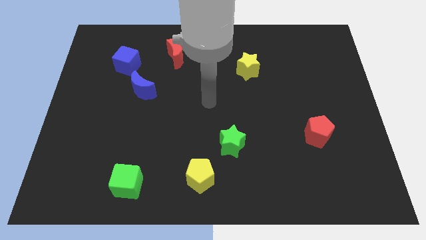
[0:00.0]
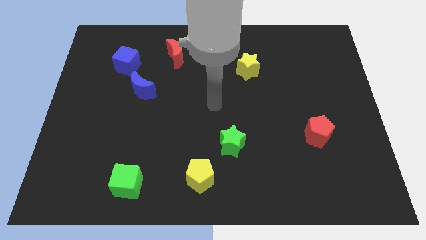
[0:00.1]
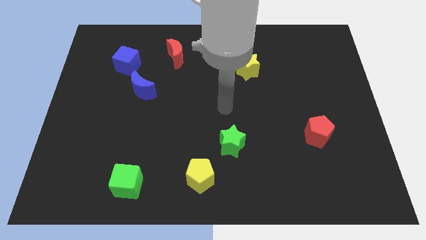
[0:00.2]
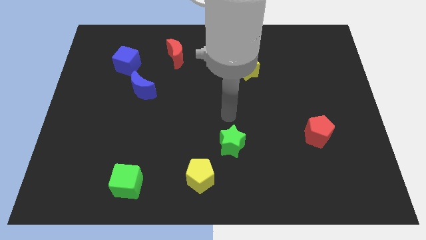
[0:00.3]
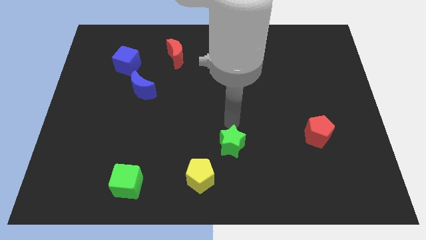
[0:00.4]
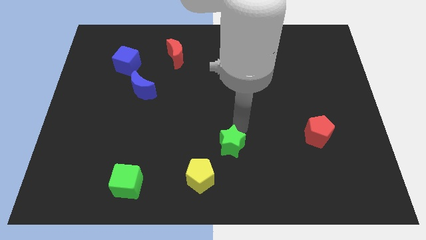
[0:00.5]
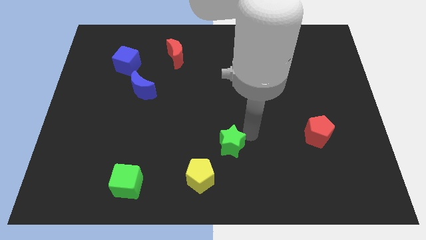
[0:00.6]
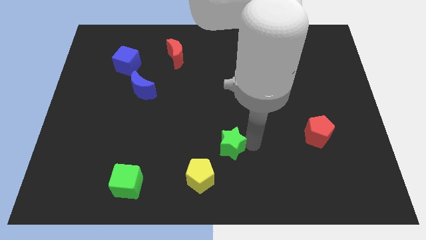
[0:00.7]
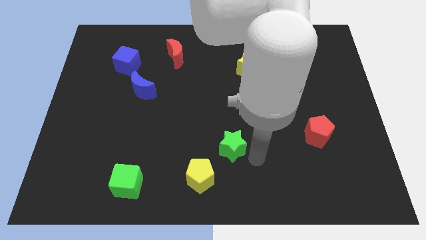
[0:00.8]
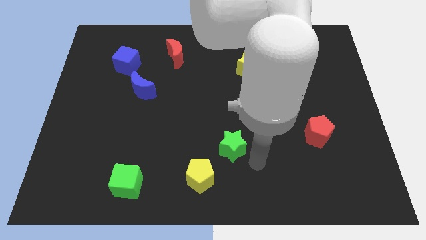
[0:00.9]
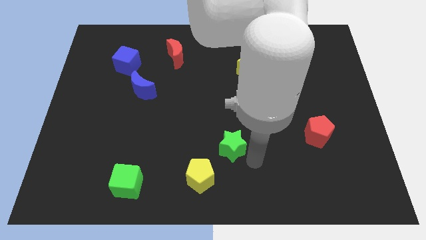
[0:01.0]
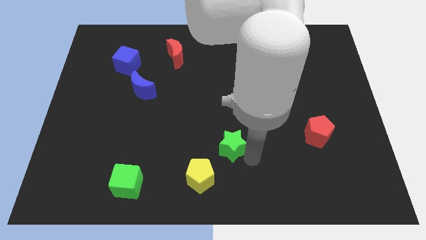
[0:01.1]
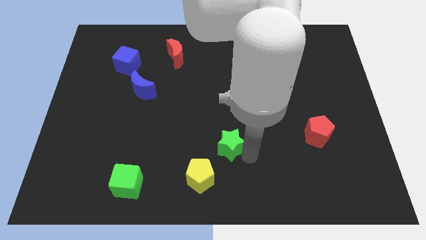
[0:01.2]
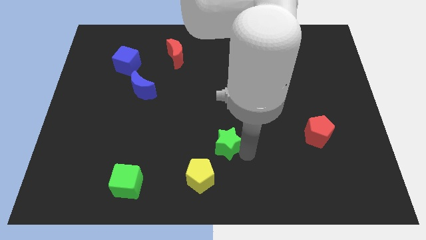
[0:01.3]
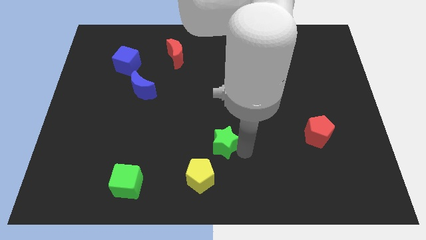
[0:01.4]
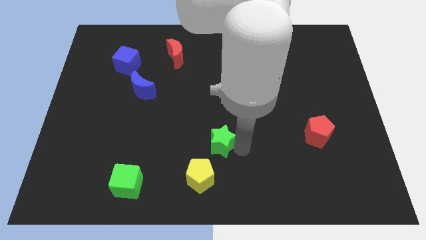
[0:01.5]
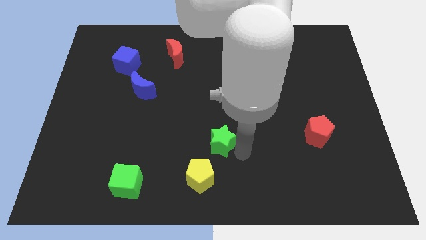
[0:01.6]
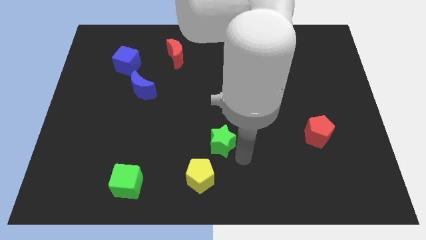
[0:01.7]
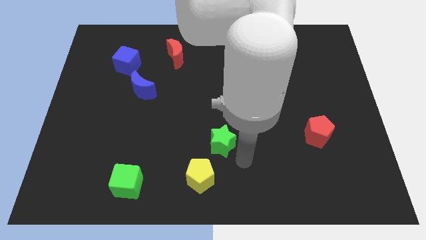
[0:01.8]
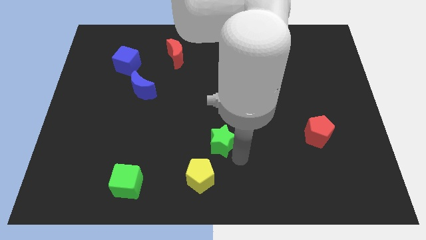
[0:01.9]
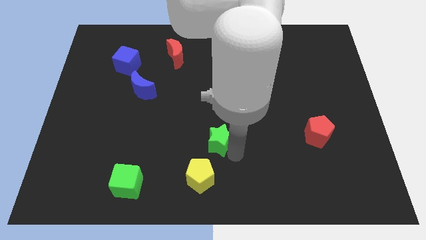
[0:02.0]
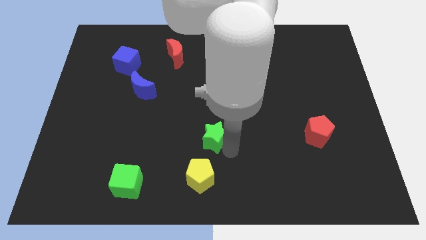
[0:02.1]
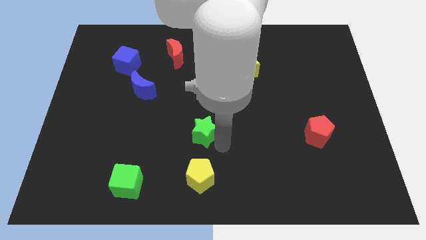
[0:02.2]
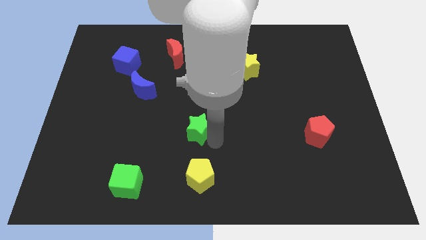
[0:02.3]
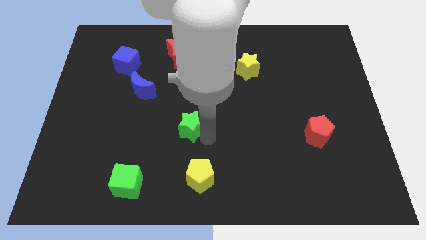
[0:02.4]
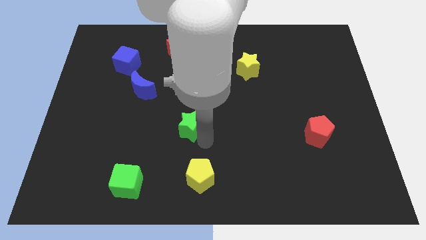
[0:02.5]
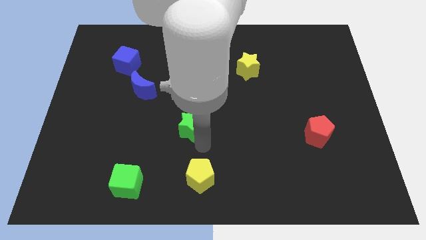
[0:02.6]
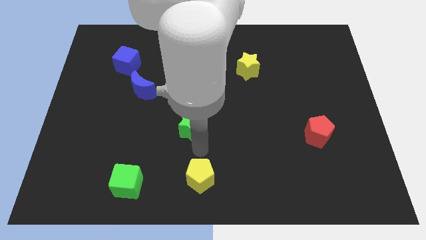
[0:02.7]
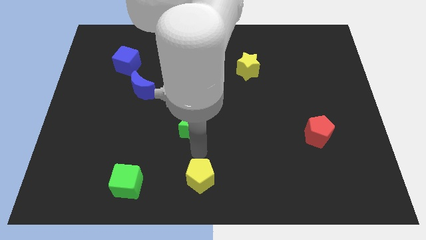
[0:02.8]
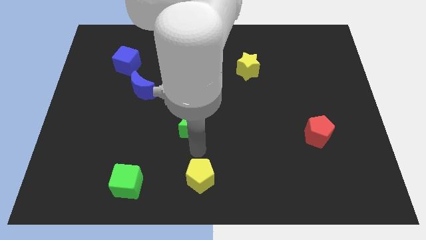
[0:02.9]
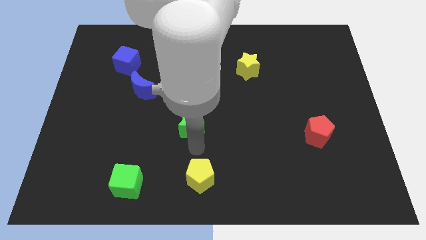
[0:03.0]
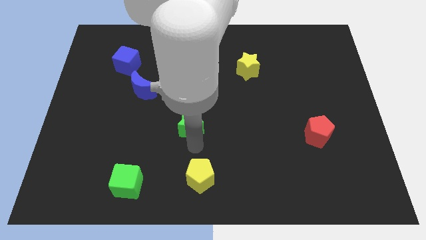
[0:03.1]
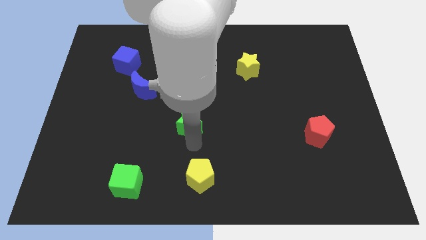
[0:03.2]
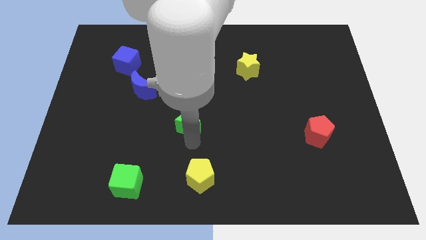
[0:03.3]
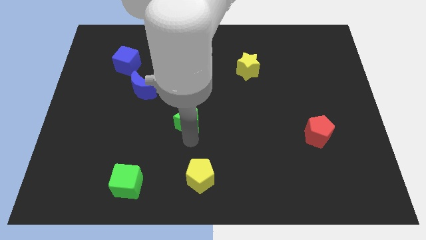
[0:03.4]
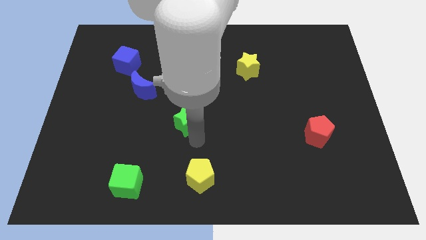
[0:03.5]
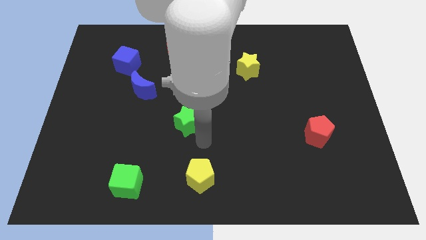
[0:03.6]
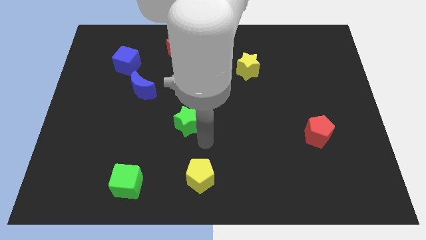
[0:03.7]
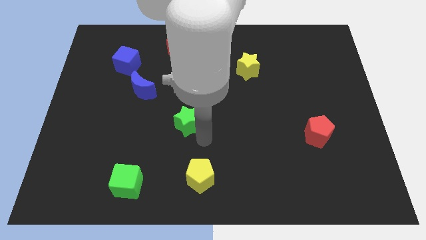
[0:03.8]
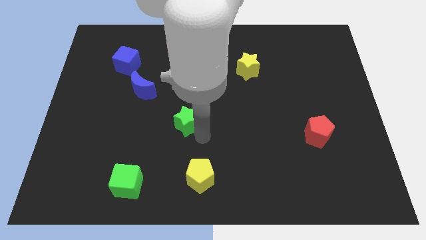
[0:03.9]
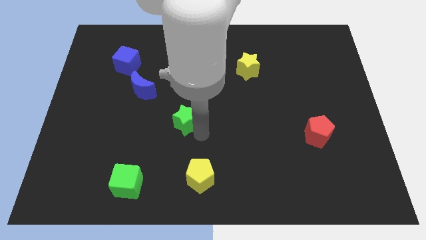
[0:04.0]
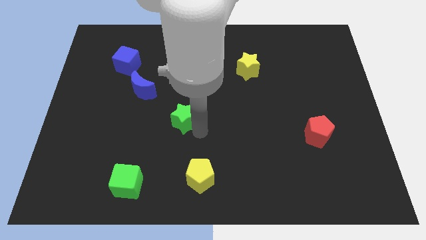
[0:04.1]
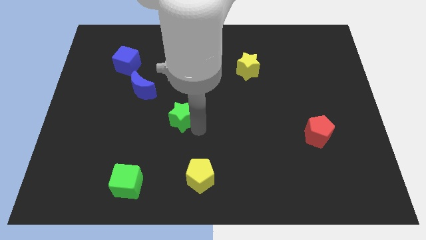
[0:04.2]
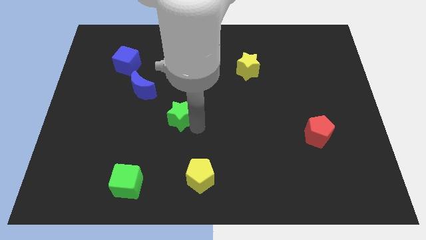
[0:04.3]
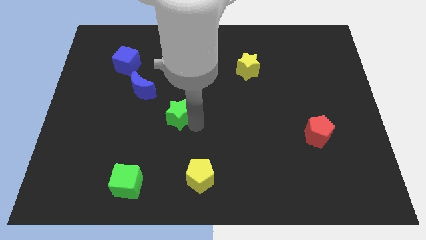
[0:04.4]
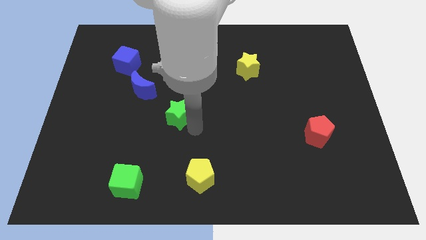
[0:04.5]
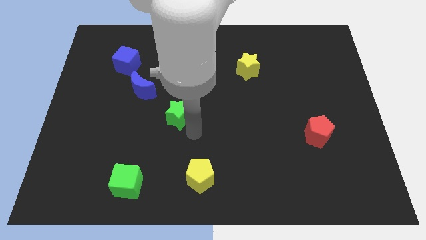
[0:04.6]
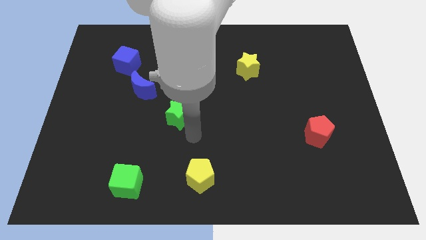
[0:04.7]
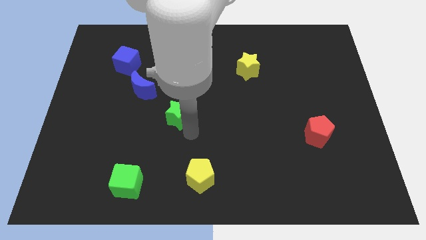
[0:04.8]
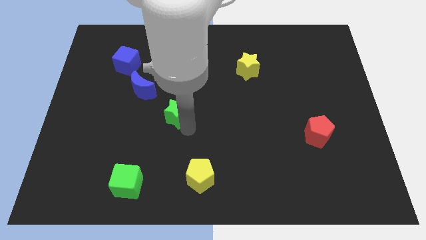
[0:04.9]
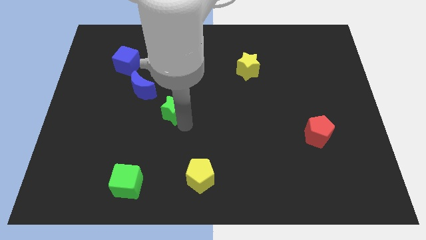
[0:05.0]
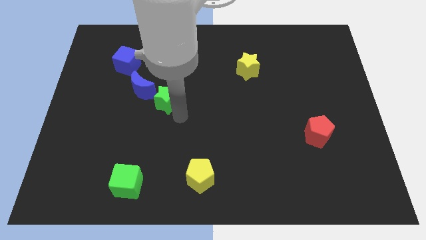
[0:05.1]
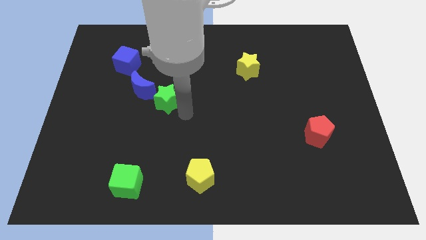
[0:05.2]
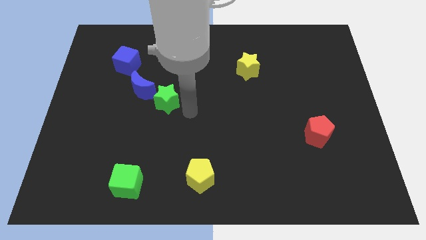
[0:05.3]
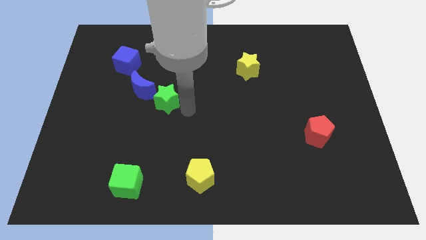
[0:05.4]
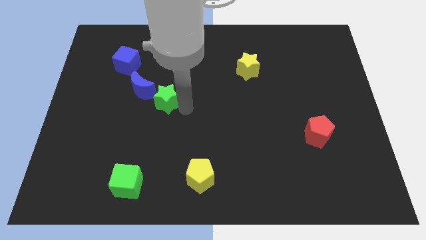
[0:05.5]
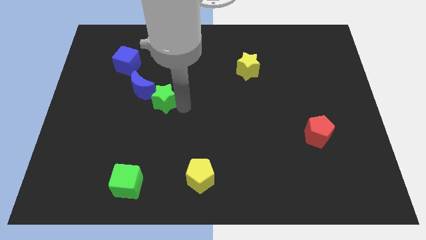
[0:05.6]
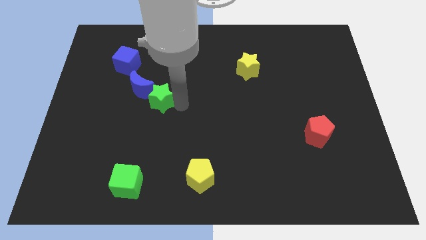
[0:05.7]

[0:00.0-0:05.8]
put the green star next to the blue moon

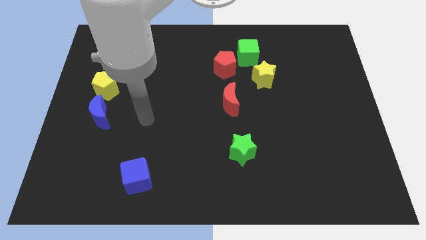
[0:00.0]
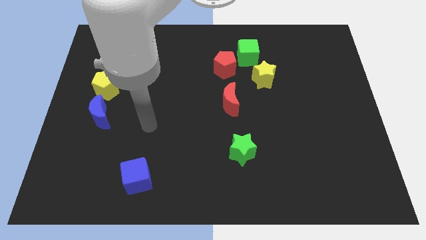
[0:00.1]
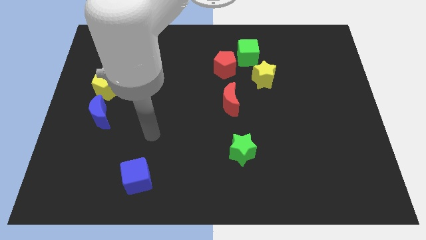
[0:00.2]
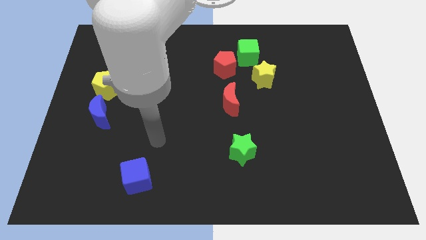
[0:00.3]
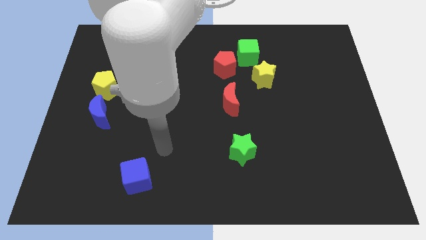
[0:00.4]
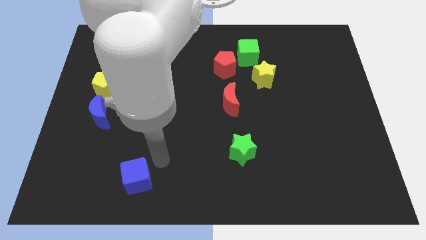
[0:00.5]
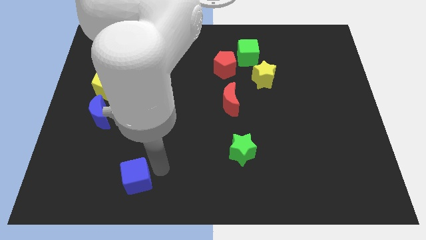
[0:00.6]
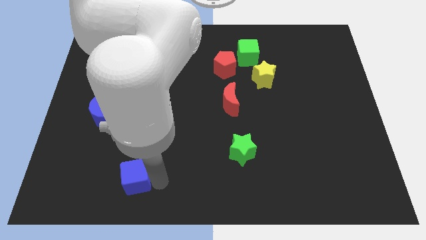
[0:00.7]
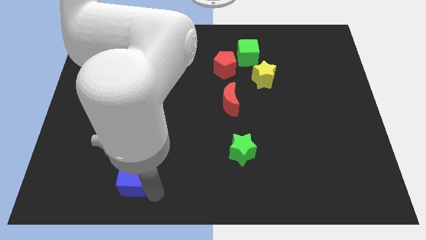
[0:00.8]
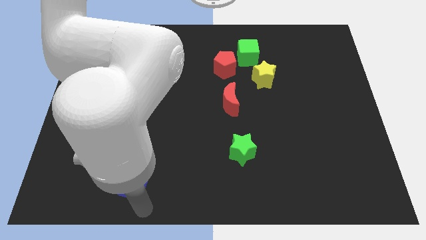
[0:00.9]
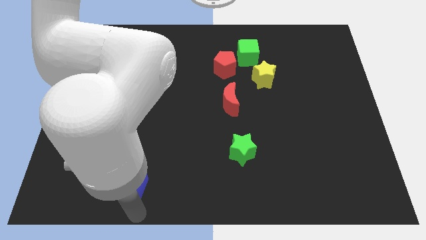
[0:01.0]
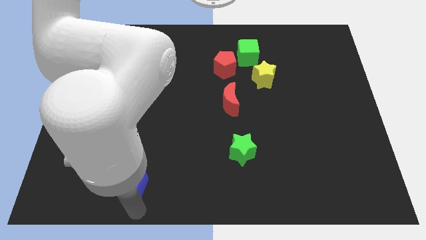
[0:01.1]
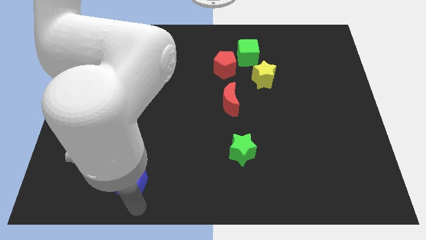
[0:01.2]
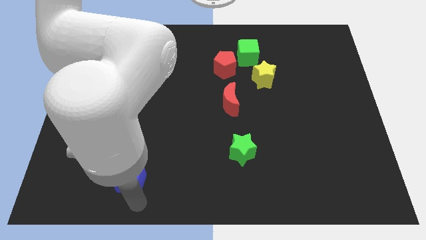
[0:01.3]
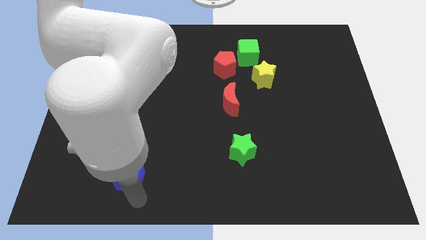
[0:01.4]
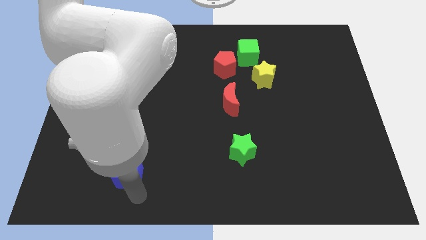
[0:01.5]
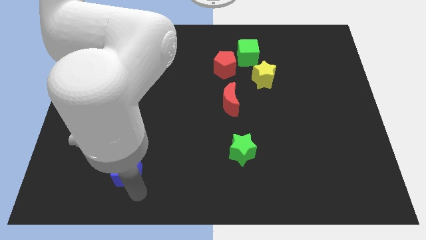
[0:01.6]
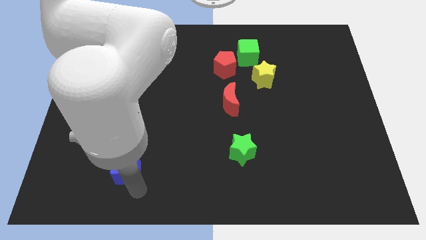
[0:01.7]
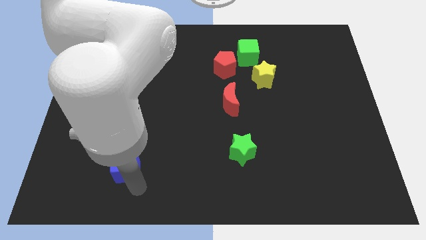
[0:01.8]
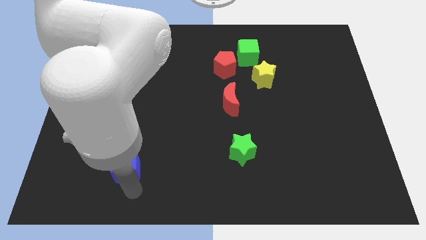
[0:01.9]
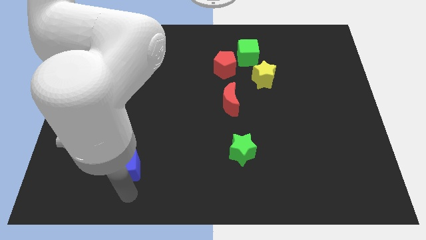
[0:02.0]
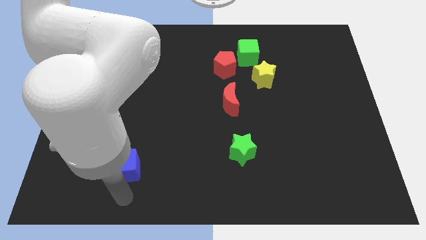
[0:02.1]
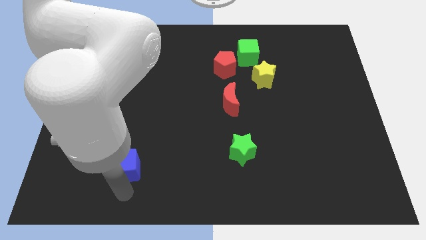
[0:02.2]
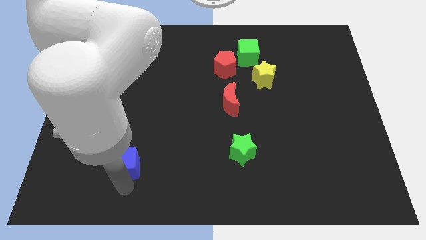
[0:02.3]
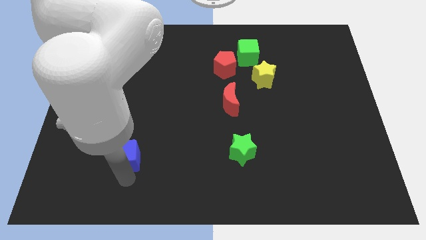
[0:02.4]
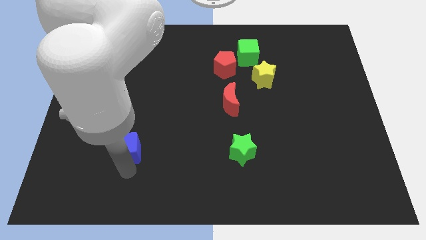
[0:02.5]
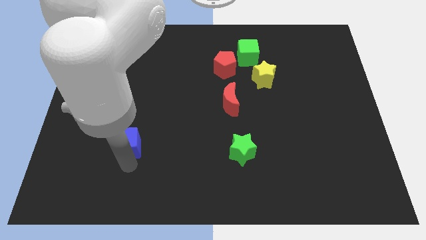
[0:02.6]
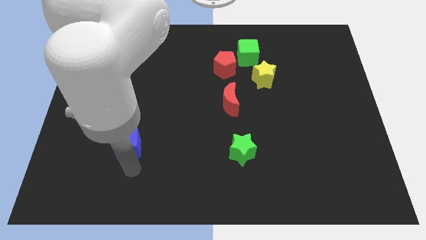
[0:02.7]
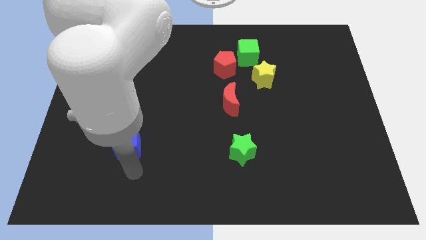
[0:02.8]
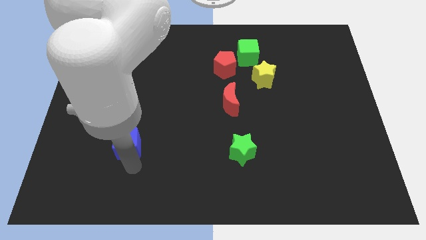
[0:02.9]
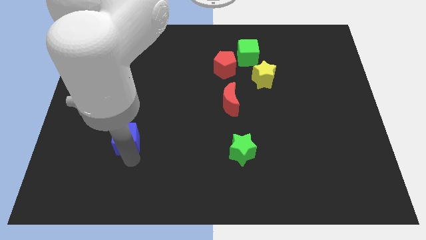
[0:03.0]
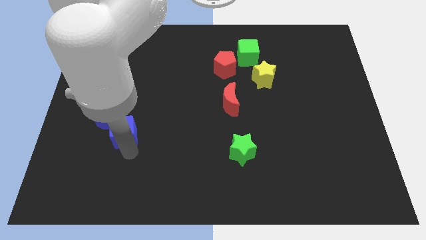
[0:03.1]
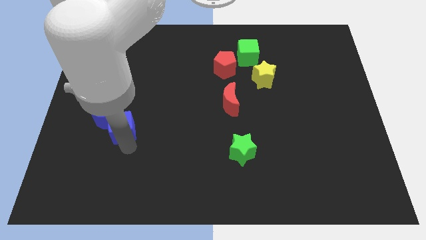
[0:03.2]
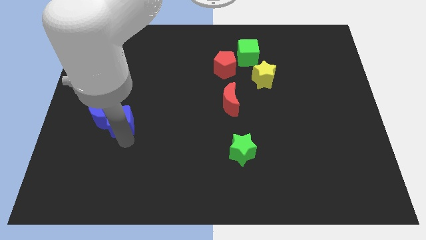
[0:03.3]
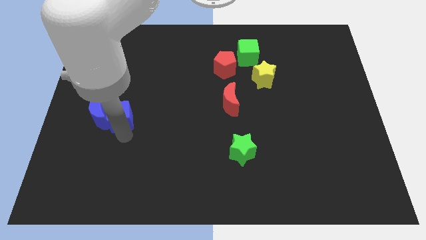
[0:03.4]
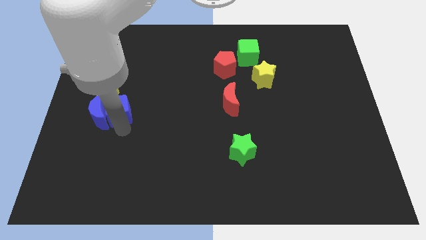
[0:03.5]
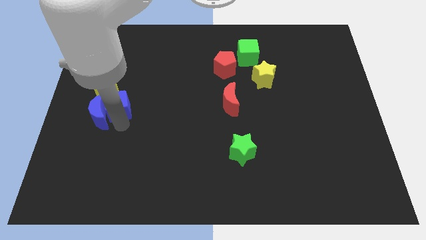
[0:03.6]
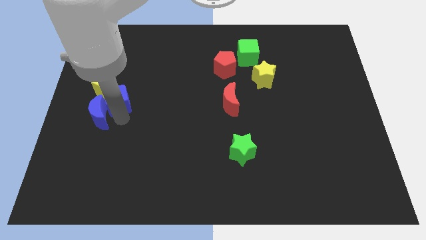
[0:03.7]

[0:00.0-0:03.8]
put the blue cube towards the yellow pentagon
